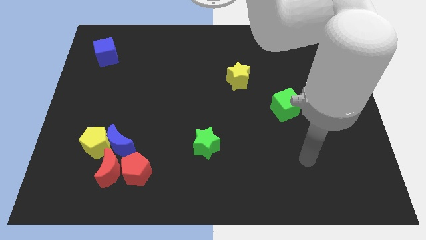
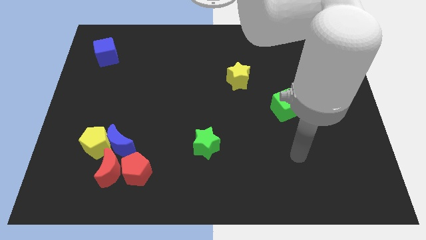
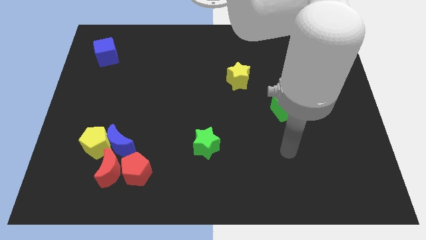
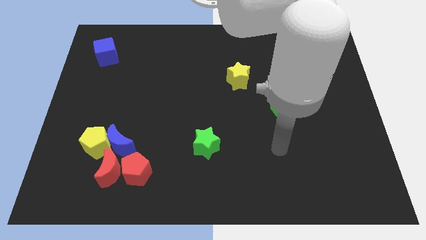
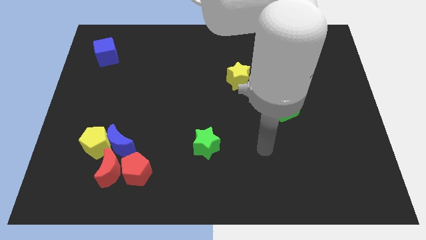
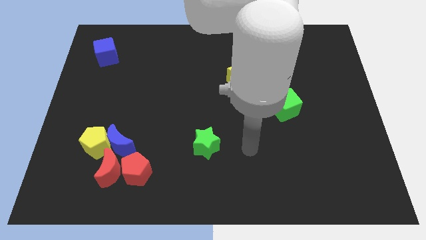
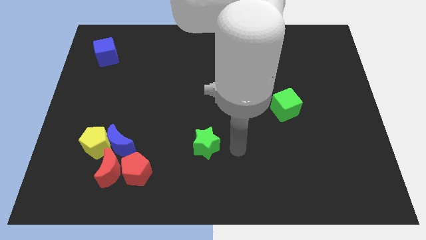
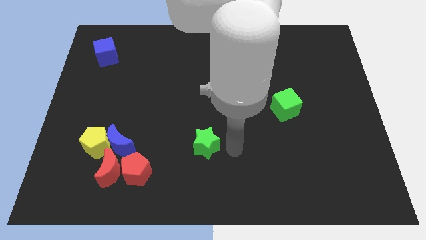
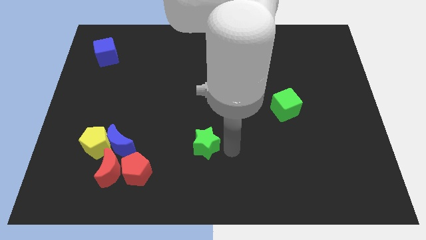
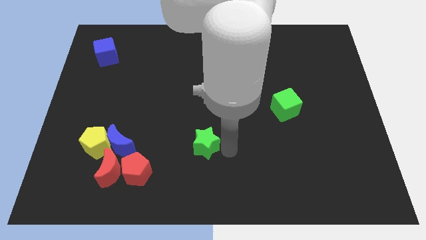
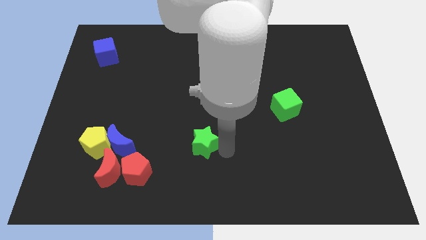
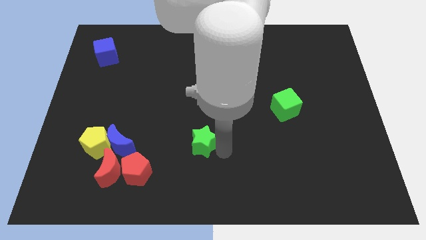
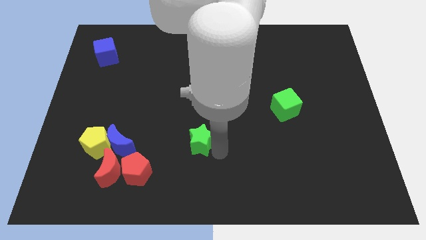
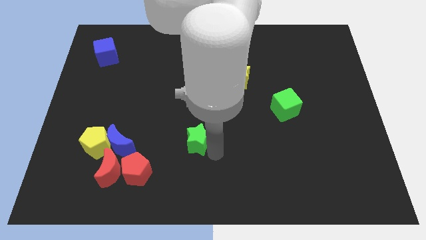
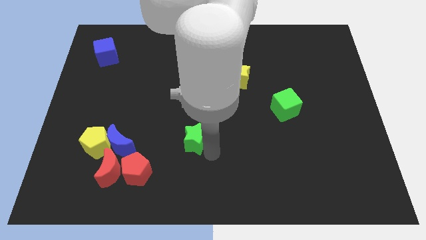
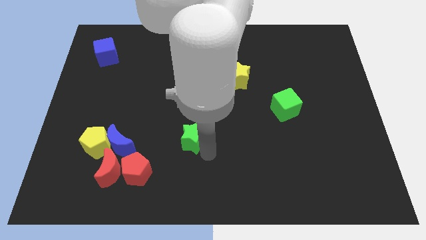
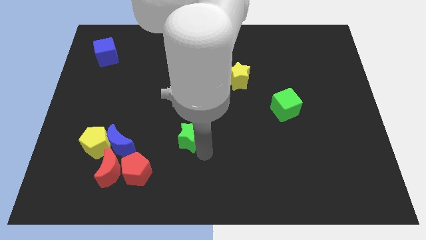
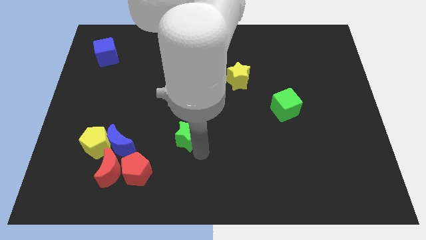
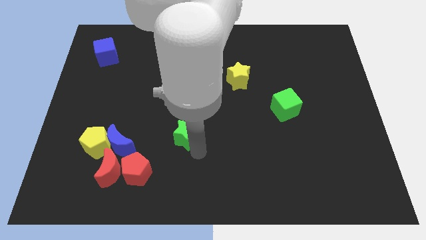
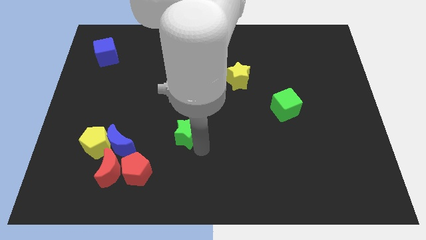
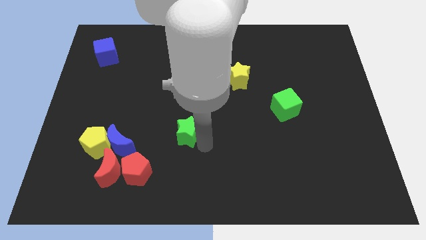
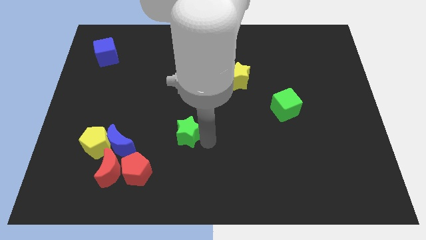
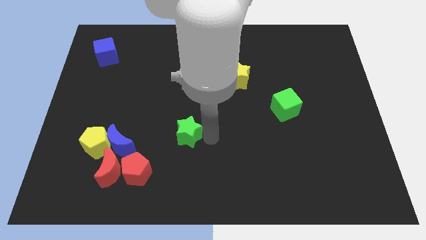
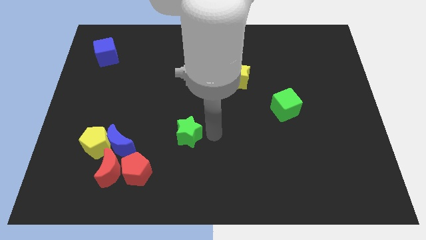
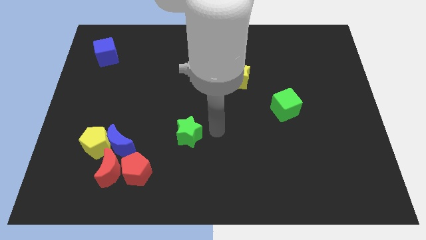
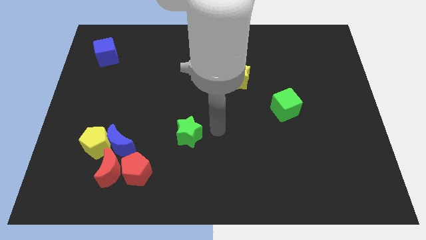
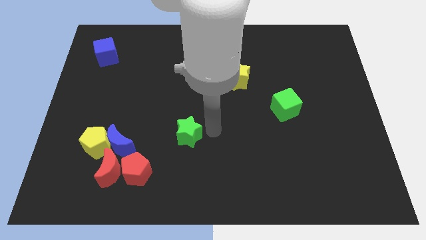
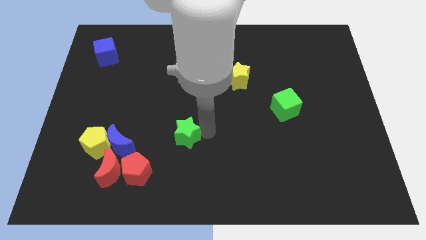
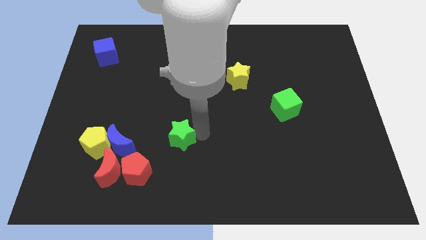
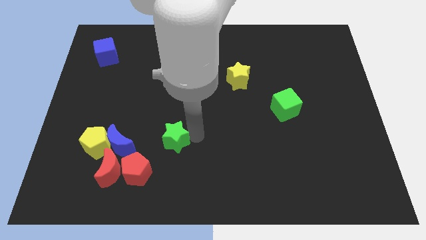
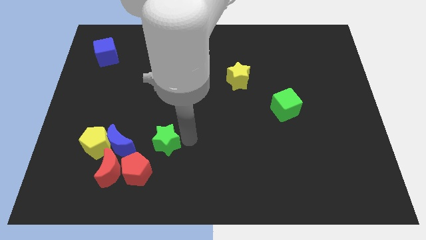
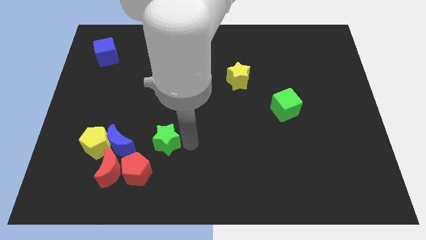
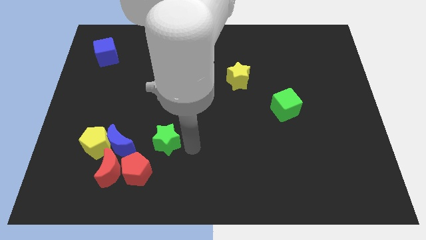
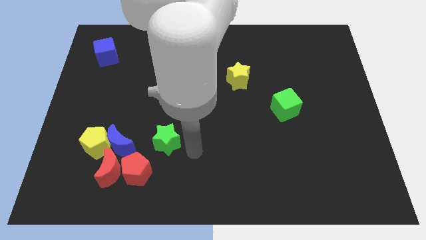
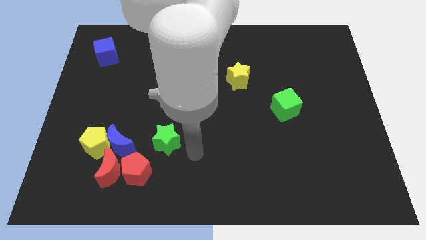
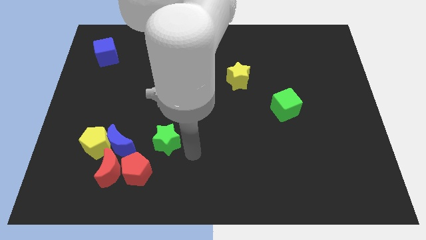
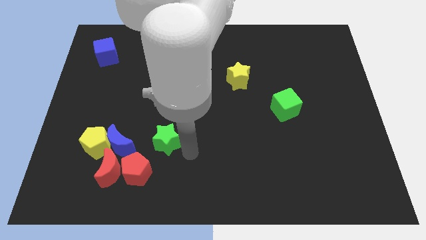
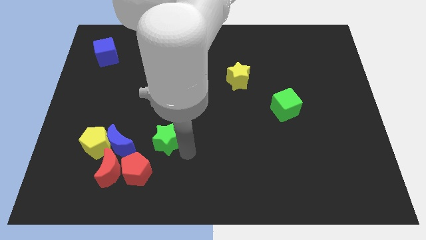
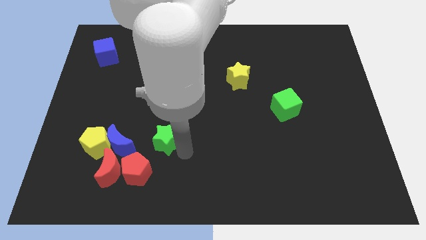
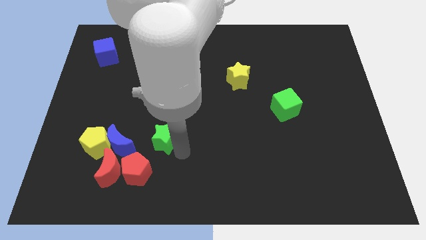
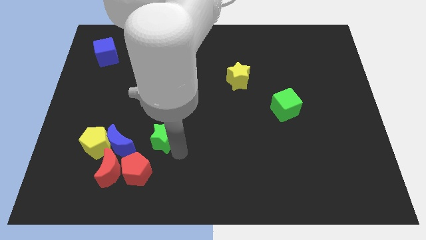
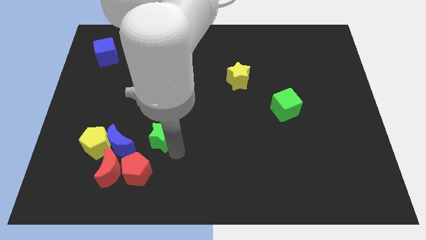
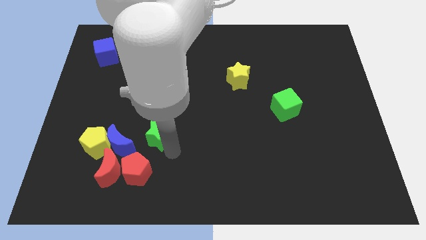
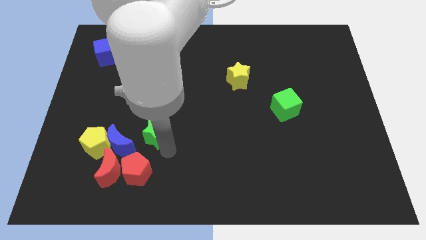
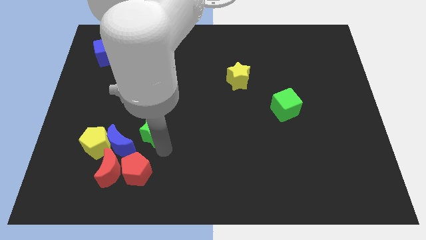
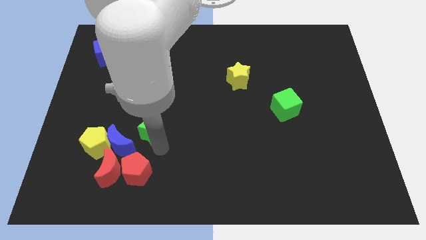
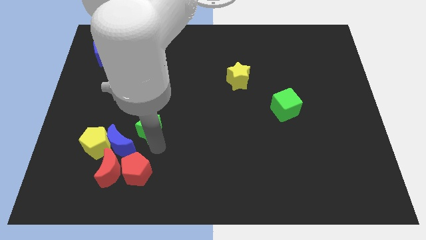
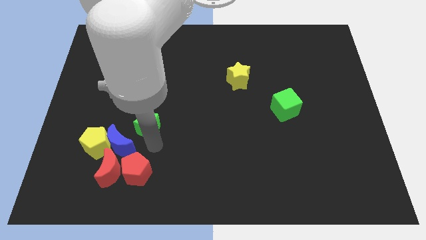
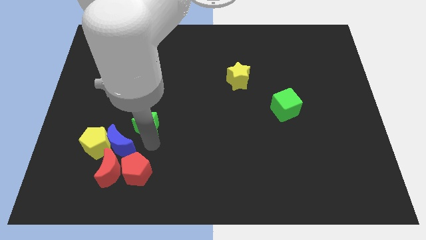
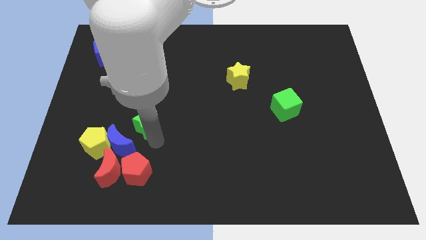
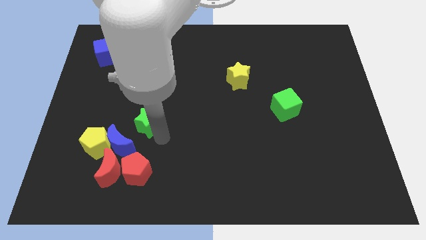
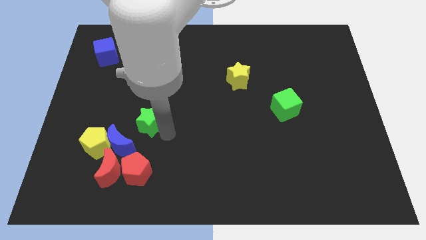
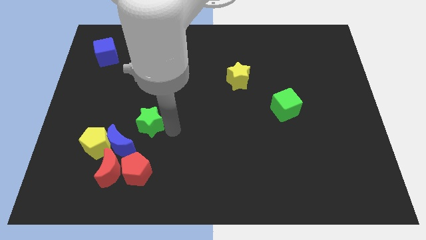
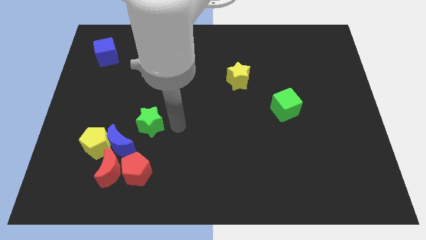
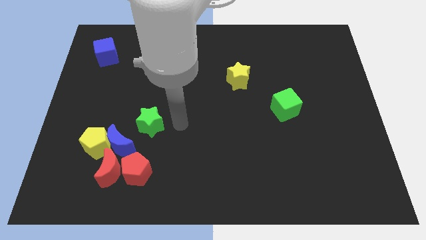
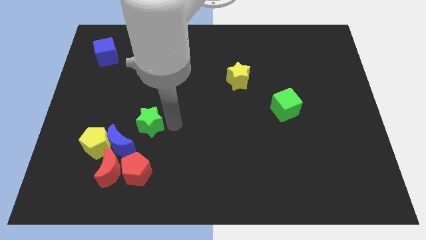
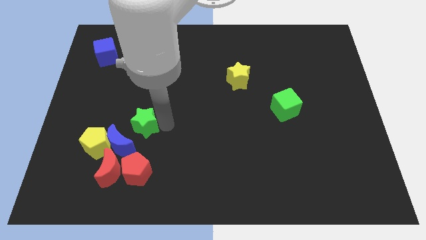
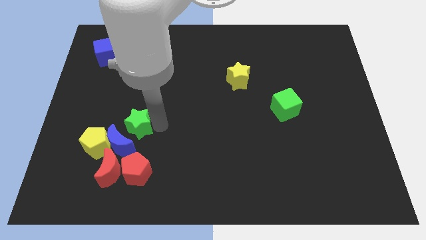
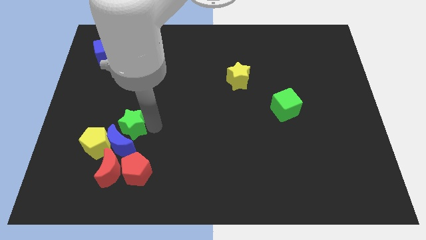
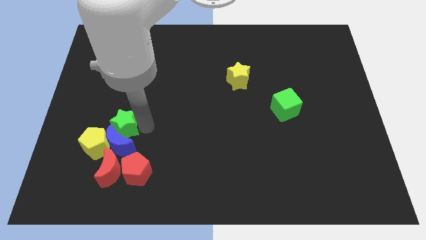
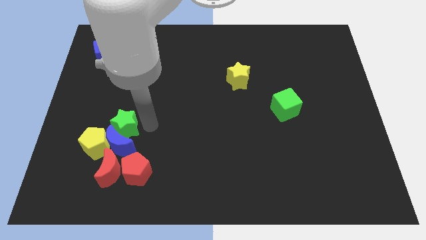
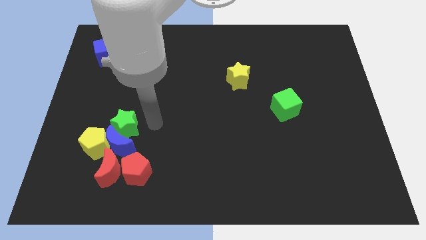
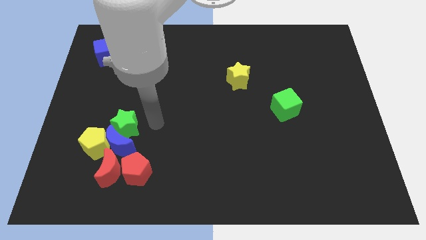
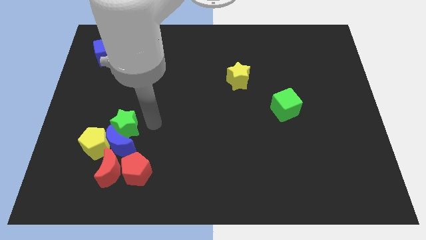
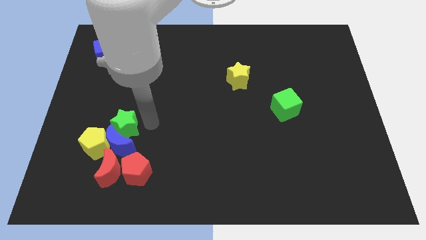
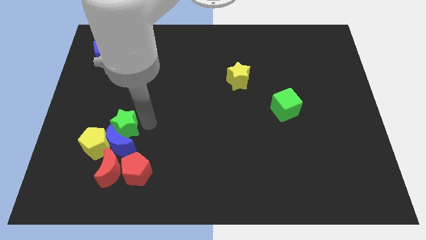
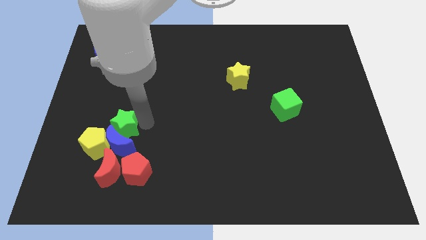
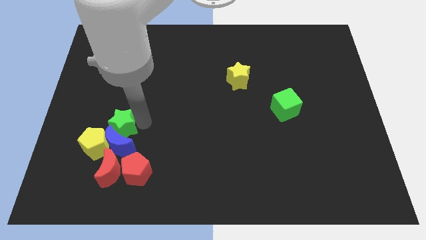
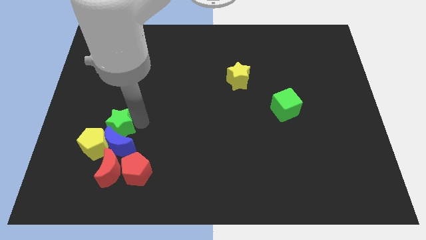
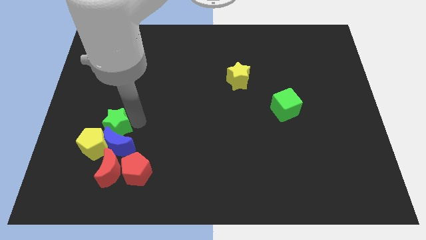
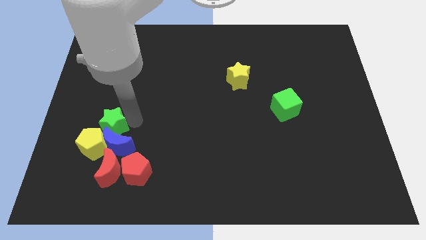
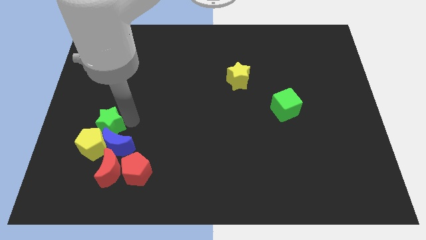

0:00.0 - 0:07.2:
push the green star next to the yellow pentagon

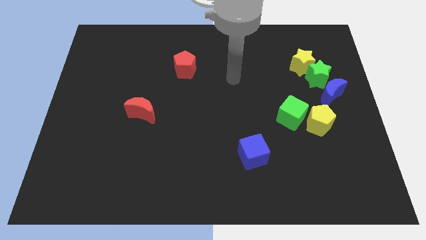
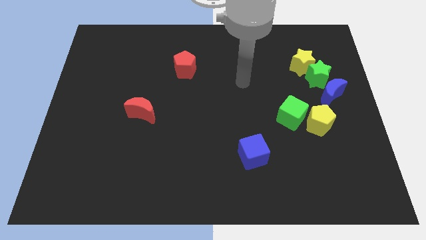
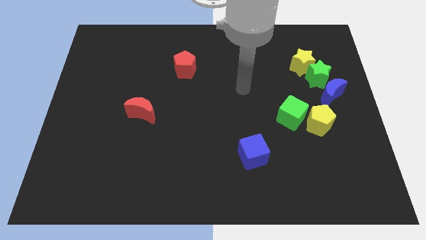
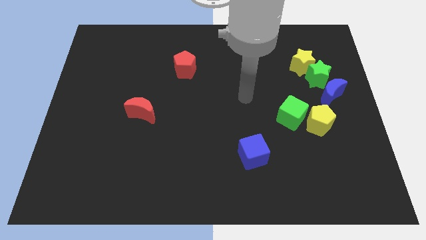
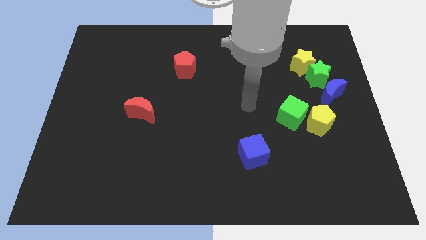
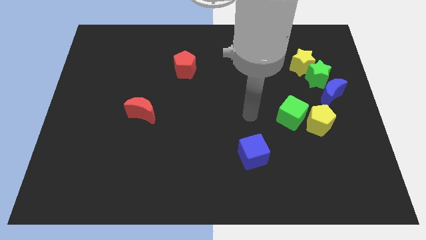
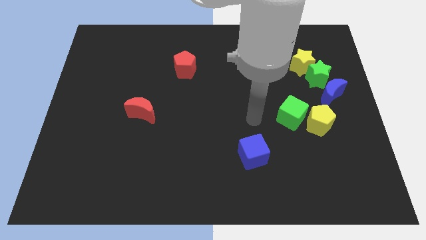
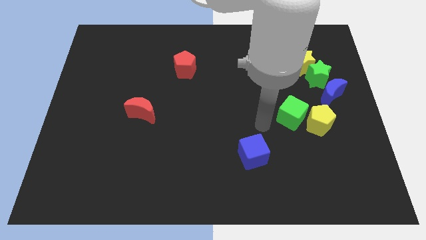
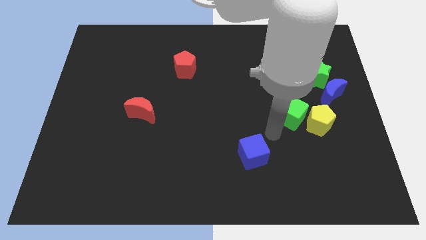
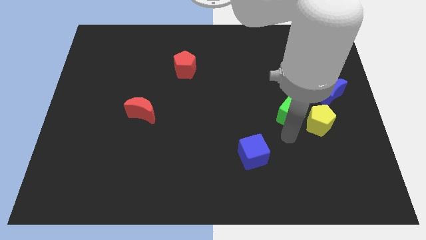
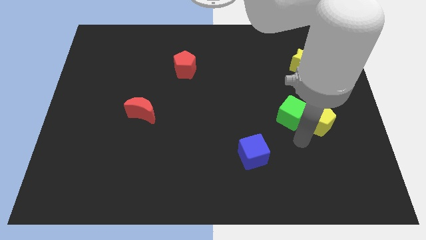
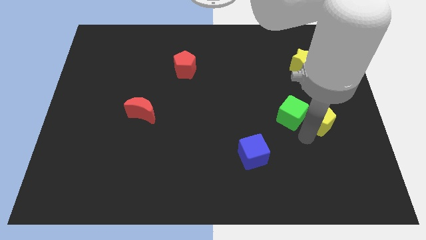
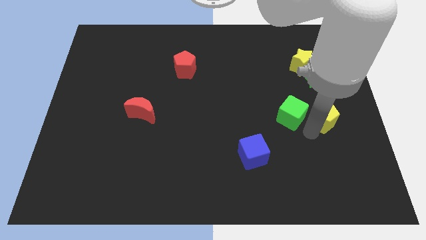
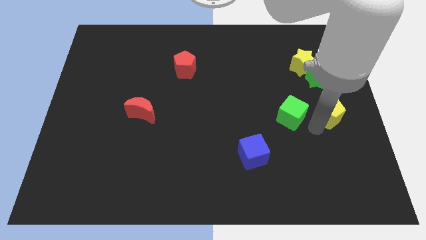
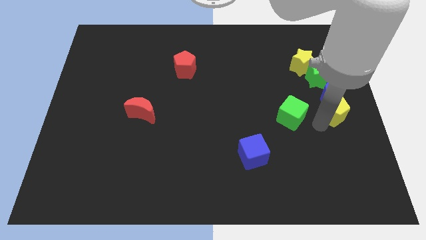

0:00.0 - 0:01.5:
push the yellow pentagon close to the blue moon
